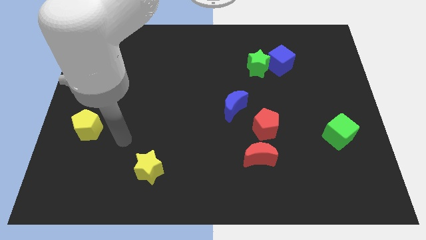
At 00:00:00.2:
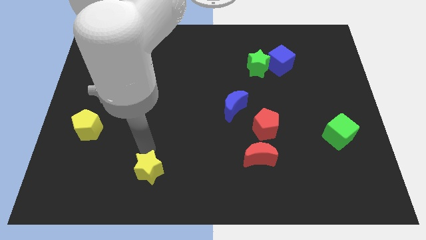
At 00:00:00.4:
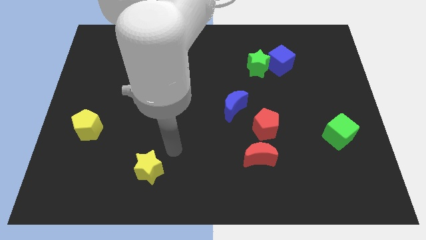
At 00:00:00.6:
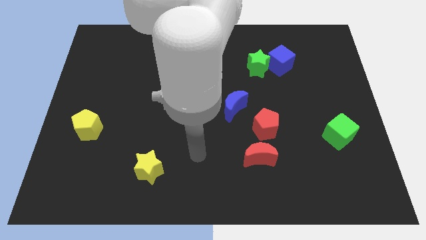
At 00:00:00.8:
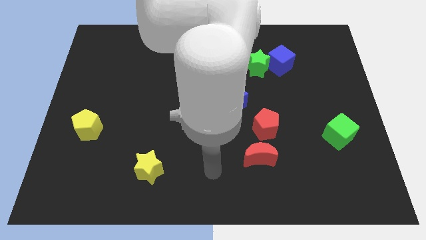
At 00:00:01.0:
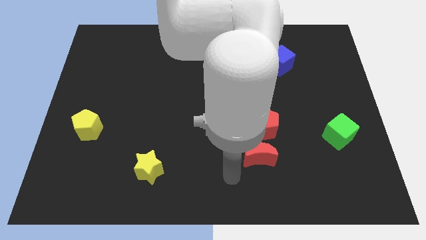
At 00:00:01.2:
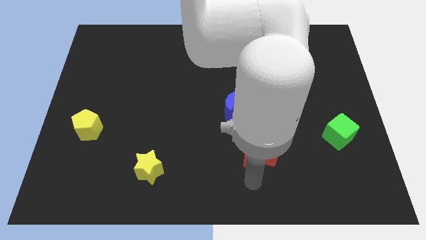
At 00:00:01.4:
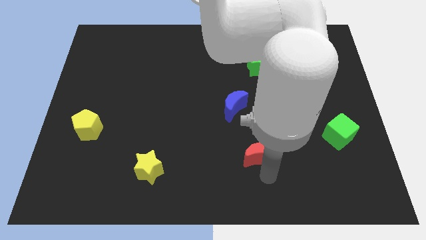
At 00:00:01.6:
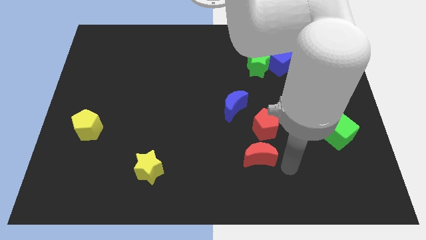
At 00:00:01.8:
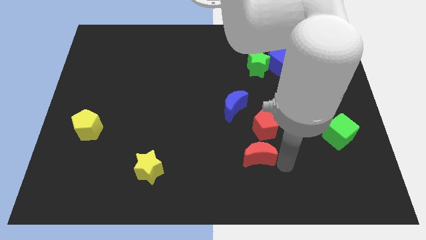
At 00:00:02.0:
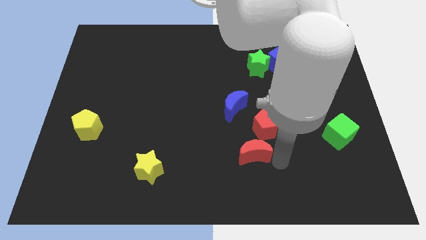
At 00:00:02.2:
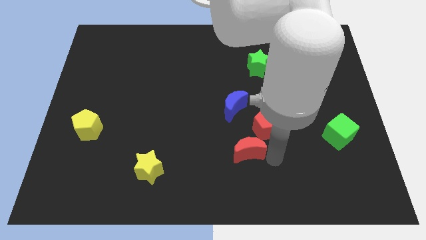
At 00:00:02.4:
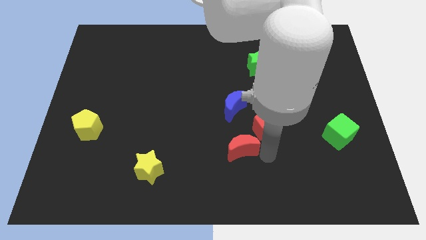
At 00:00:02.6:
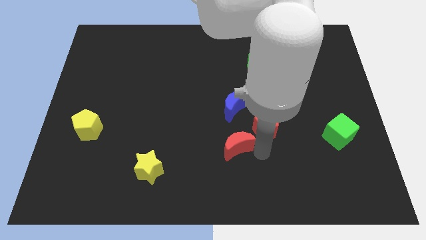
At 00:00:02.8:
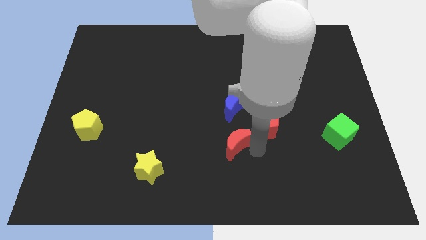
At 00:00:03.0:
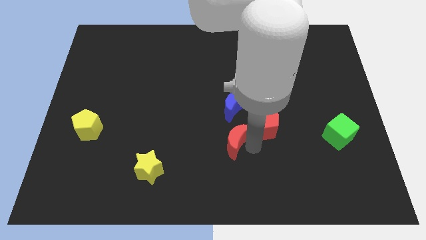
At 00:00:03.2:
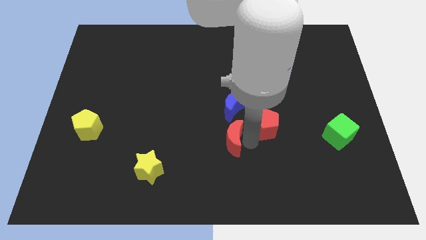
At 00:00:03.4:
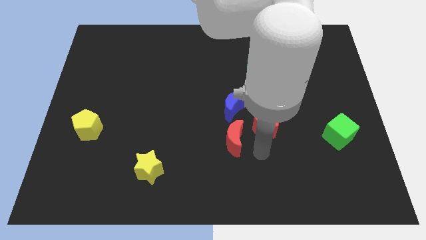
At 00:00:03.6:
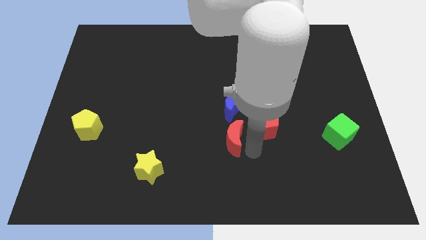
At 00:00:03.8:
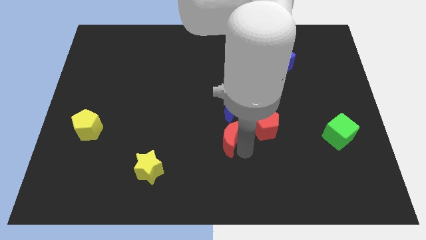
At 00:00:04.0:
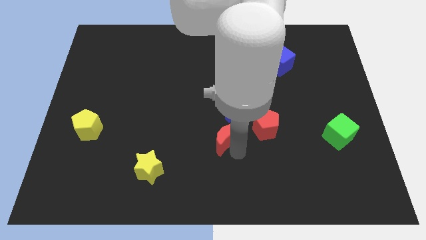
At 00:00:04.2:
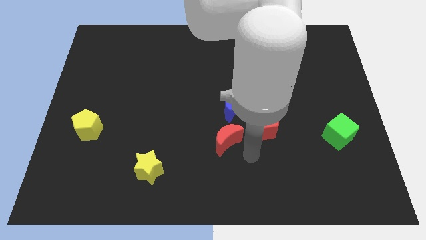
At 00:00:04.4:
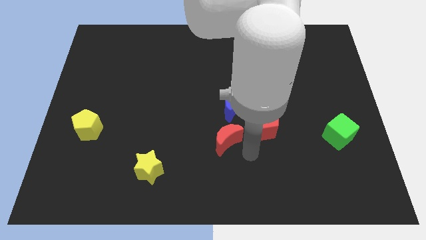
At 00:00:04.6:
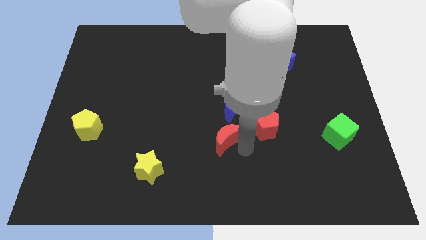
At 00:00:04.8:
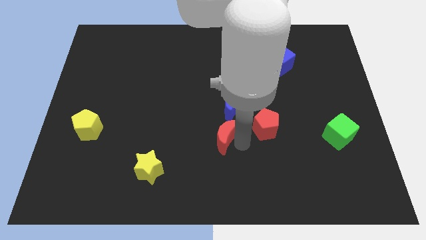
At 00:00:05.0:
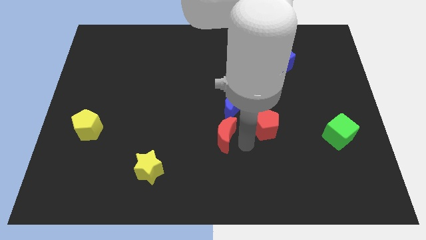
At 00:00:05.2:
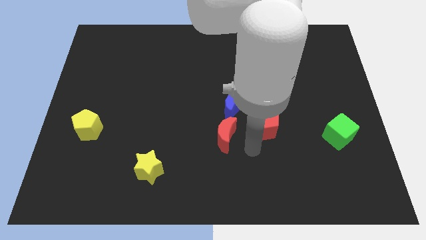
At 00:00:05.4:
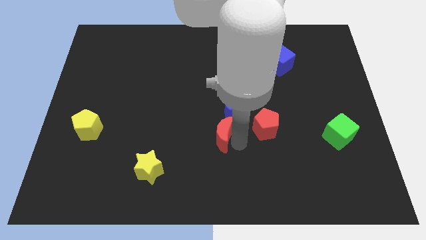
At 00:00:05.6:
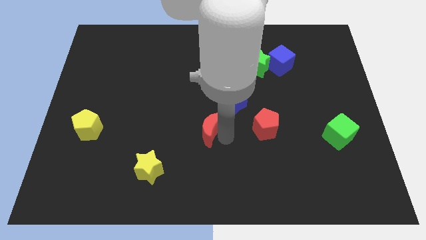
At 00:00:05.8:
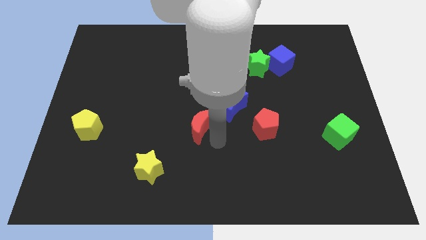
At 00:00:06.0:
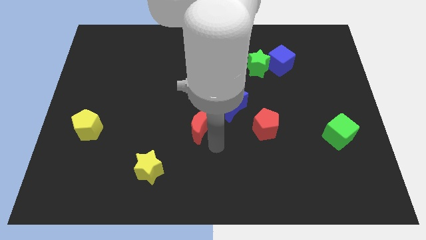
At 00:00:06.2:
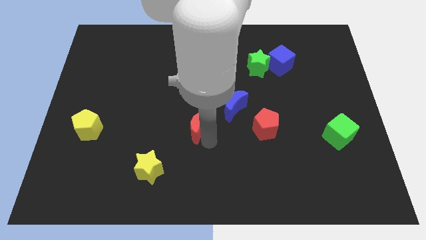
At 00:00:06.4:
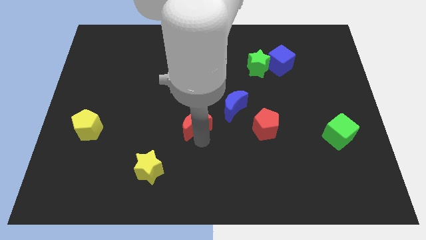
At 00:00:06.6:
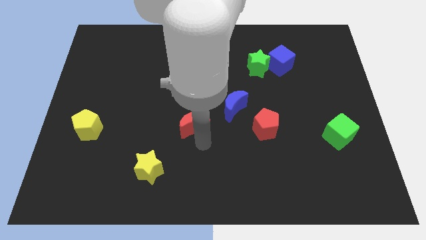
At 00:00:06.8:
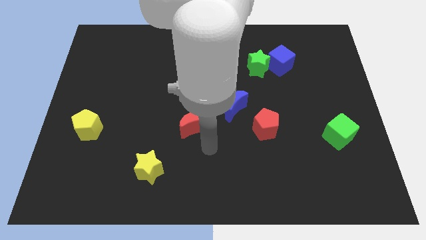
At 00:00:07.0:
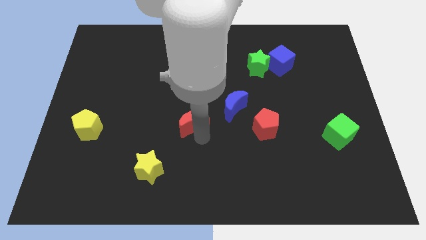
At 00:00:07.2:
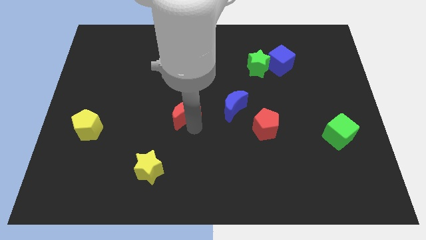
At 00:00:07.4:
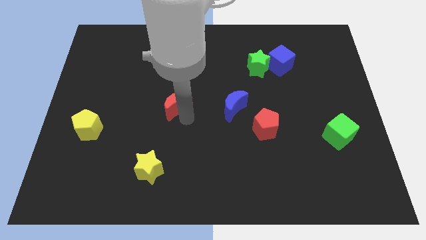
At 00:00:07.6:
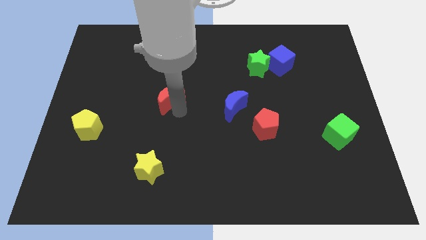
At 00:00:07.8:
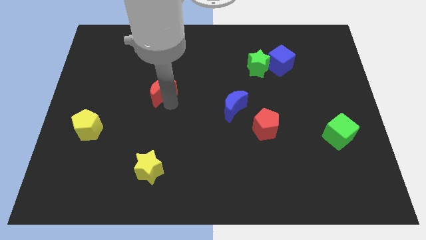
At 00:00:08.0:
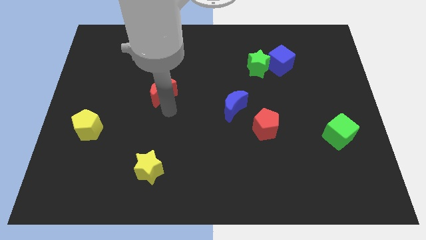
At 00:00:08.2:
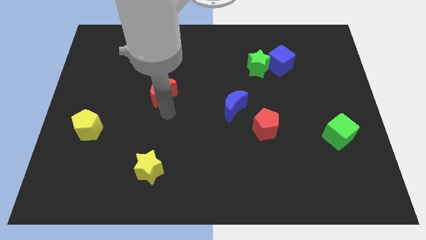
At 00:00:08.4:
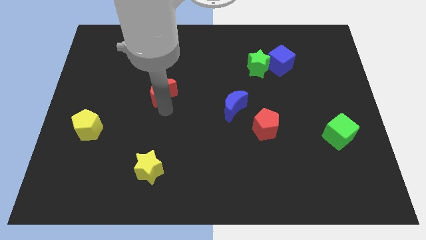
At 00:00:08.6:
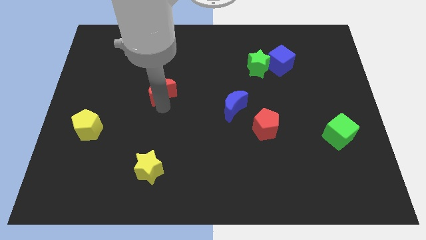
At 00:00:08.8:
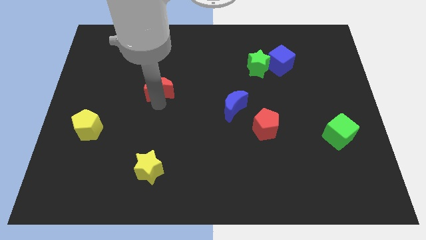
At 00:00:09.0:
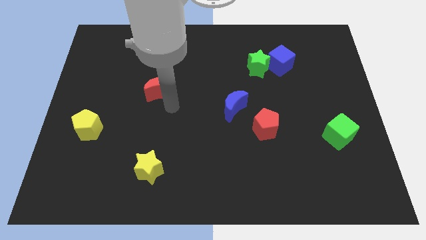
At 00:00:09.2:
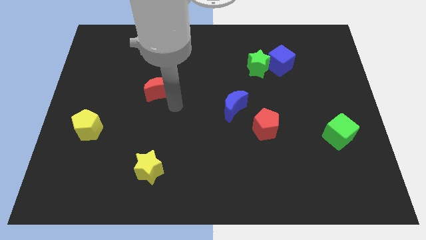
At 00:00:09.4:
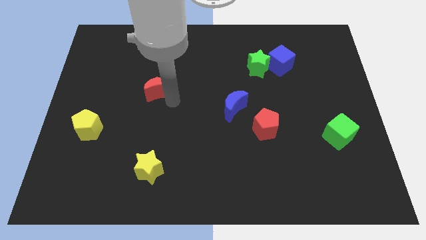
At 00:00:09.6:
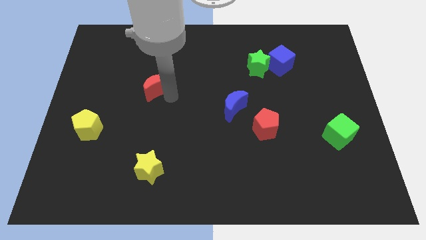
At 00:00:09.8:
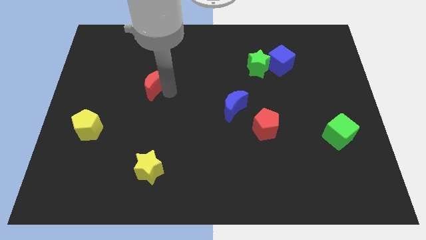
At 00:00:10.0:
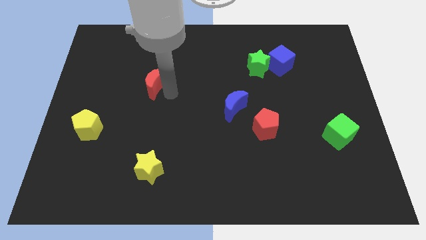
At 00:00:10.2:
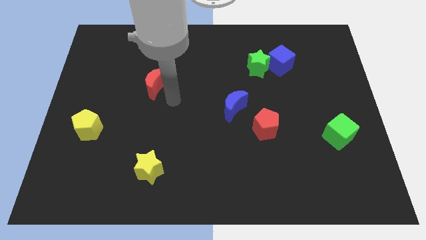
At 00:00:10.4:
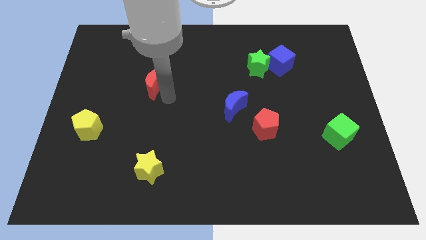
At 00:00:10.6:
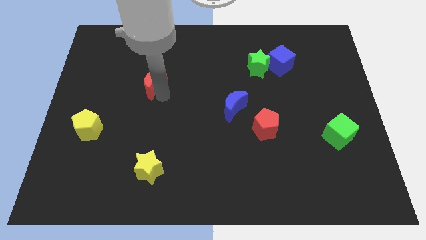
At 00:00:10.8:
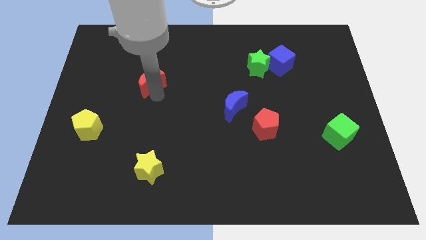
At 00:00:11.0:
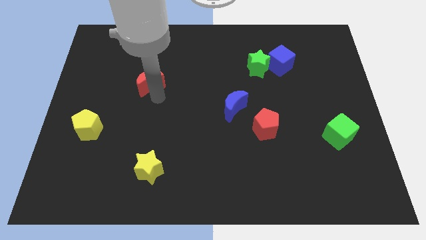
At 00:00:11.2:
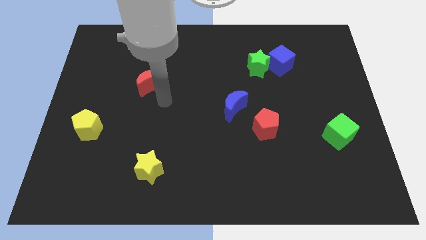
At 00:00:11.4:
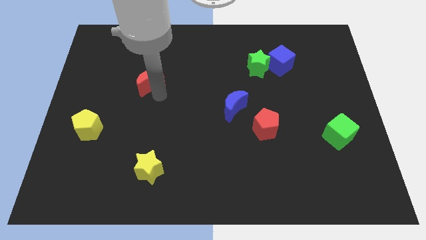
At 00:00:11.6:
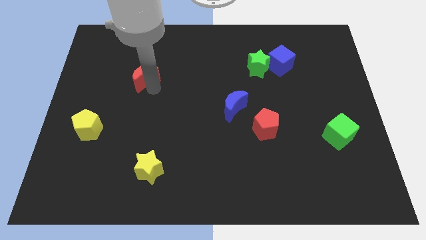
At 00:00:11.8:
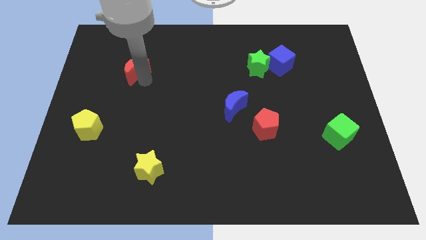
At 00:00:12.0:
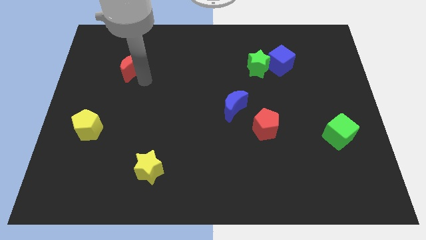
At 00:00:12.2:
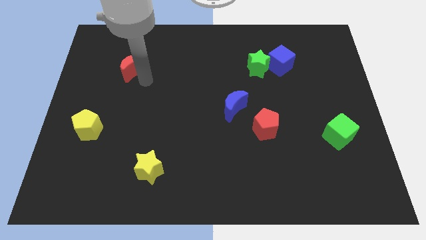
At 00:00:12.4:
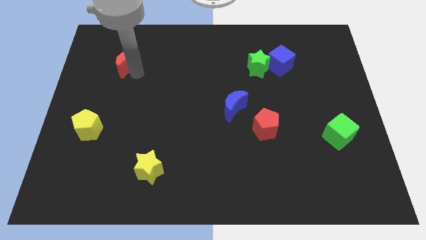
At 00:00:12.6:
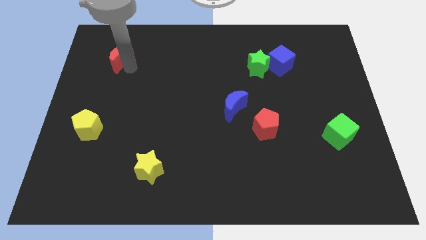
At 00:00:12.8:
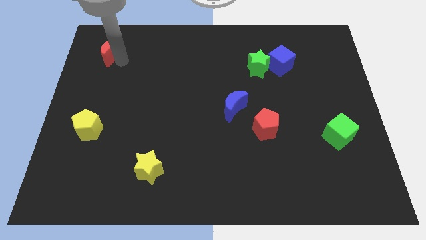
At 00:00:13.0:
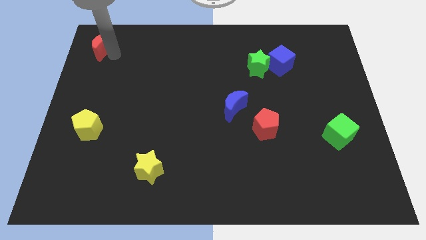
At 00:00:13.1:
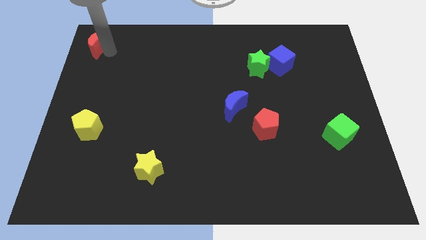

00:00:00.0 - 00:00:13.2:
move the red moon to the upper left corner
